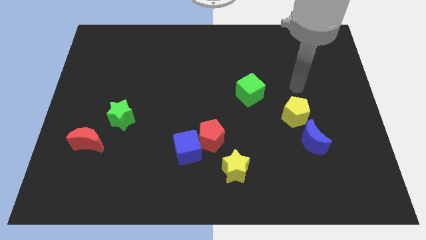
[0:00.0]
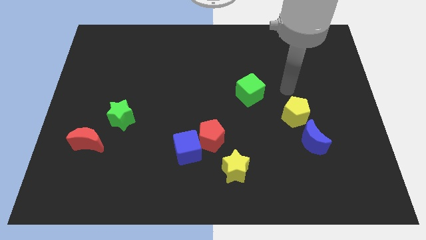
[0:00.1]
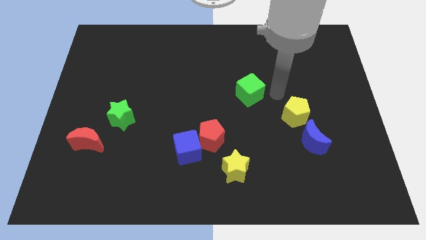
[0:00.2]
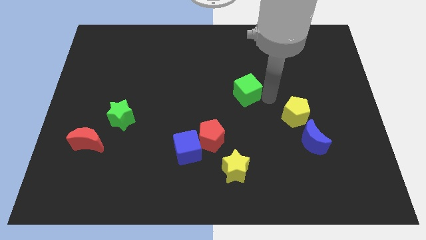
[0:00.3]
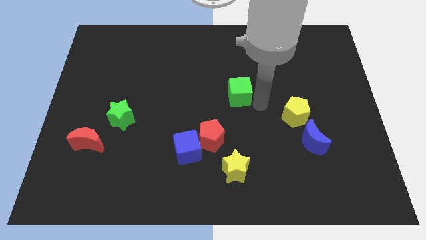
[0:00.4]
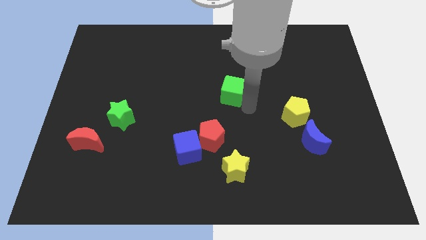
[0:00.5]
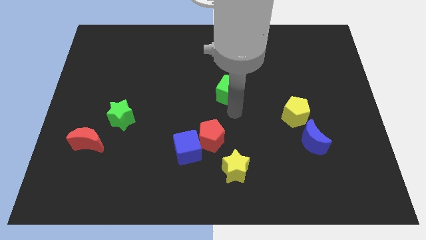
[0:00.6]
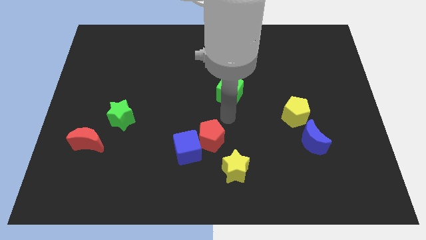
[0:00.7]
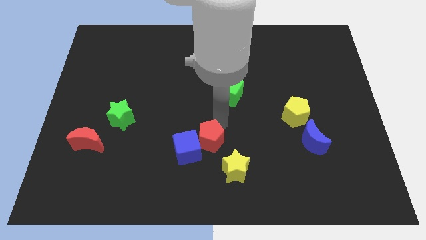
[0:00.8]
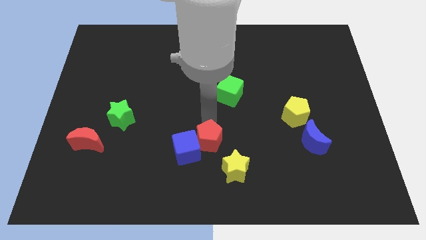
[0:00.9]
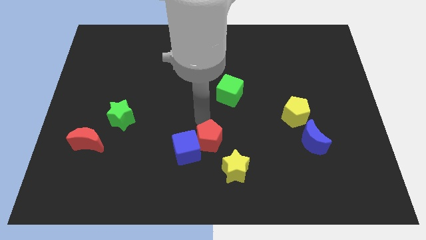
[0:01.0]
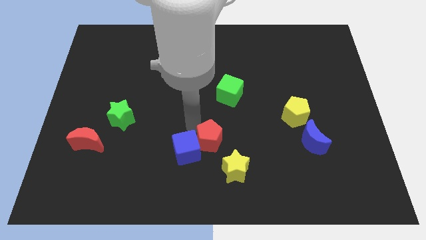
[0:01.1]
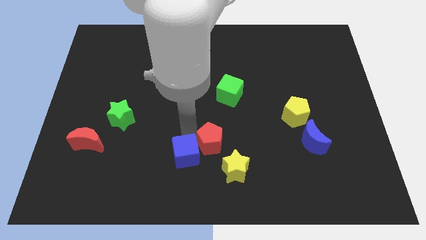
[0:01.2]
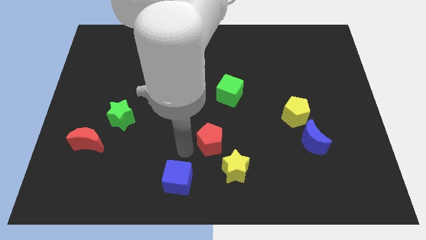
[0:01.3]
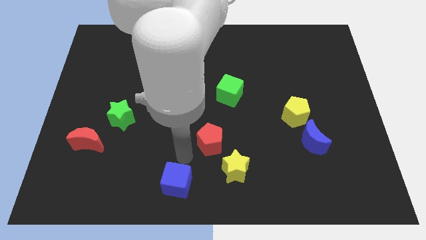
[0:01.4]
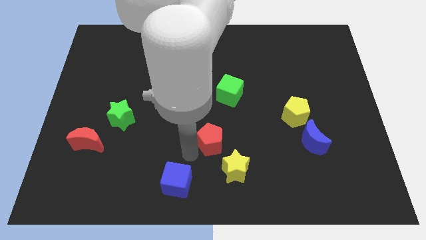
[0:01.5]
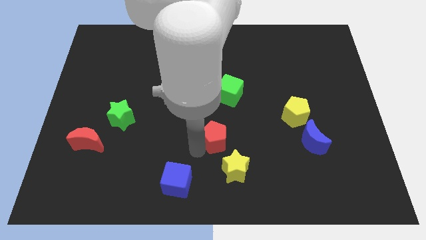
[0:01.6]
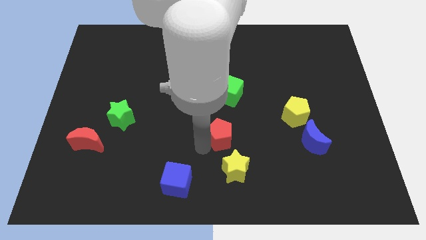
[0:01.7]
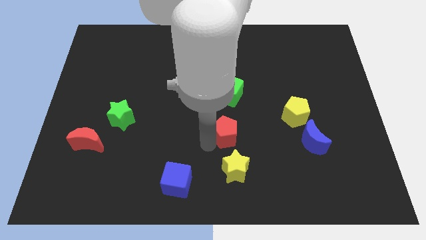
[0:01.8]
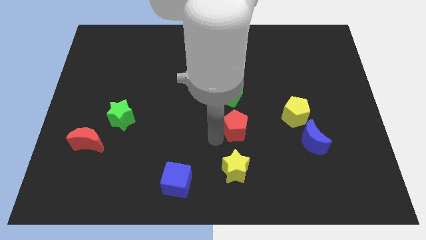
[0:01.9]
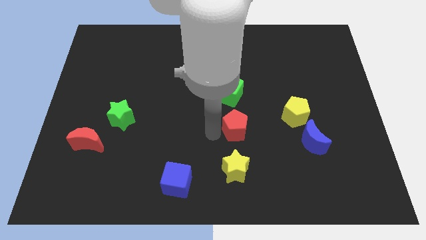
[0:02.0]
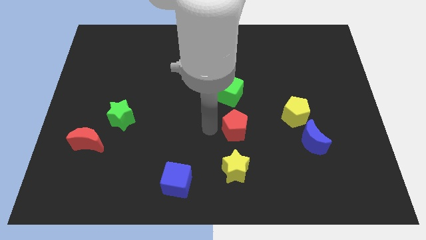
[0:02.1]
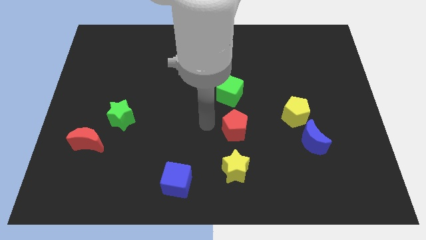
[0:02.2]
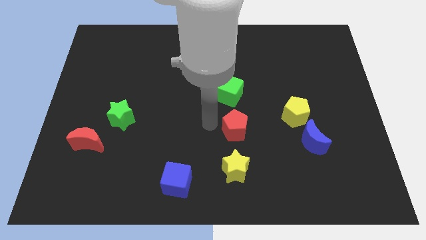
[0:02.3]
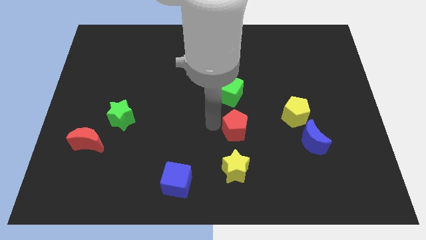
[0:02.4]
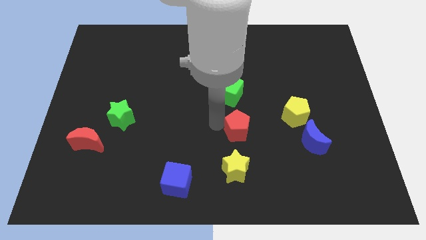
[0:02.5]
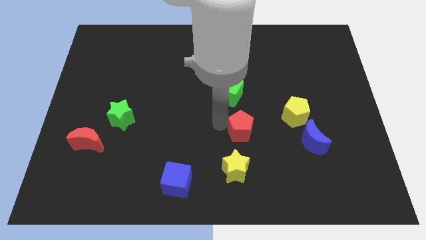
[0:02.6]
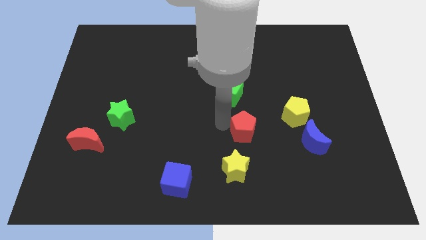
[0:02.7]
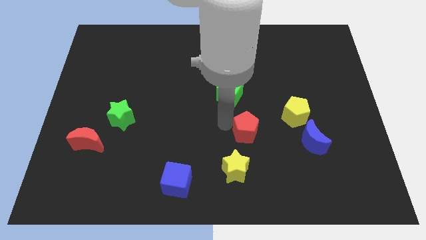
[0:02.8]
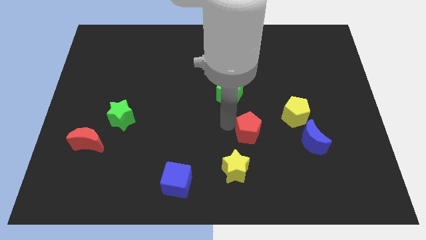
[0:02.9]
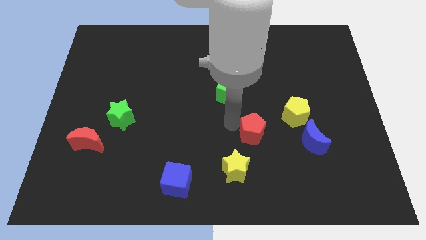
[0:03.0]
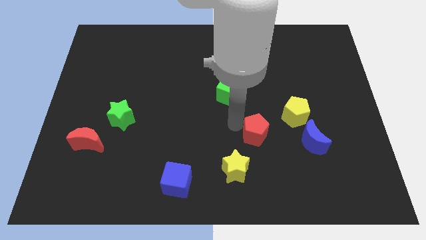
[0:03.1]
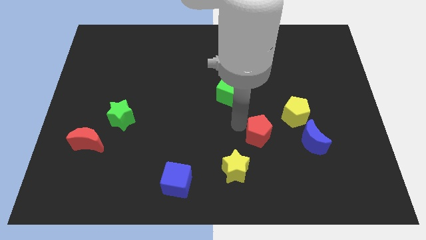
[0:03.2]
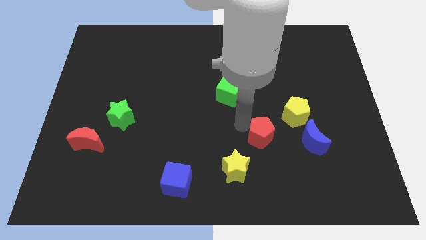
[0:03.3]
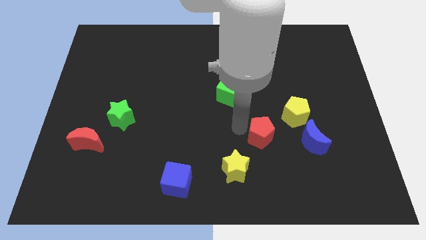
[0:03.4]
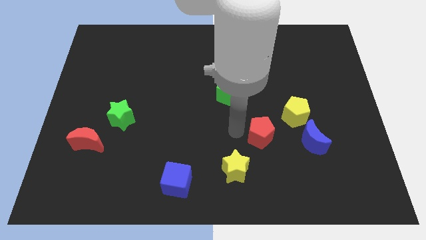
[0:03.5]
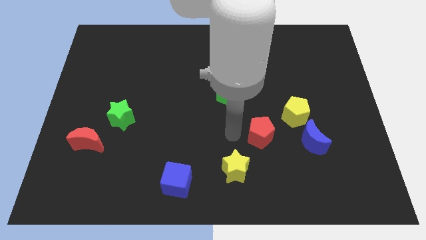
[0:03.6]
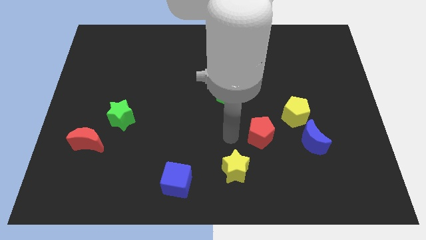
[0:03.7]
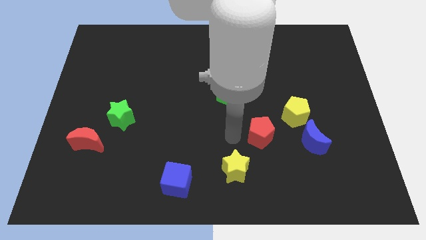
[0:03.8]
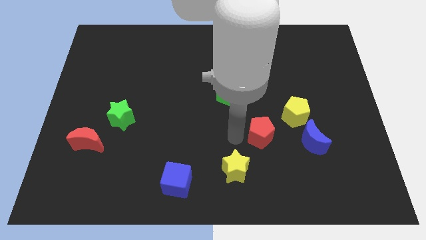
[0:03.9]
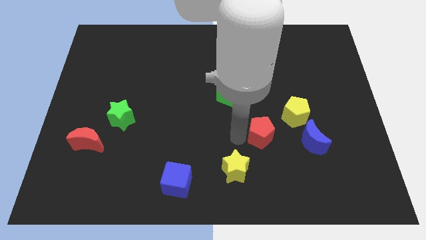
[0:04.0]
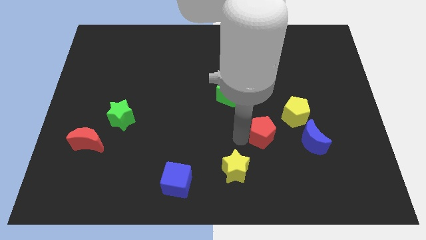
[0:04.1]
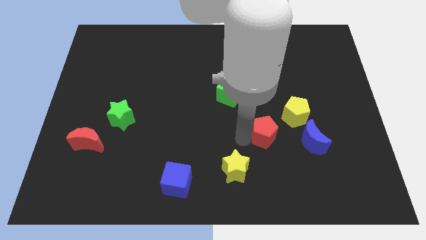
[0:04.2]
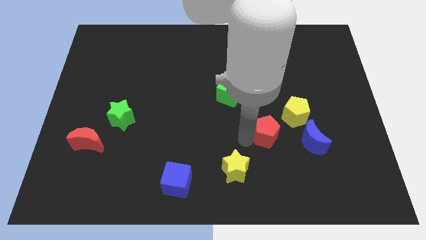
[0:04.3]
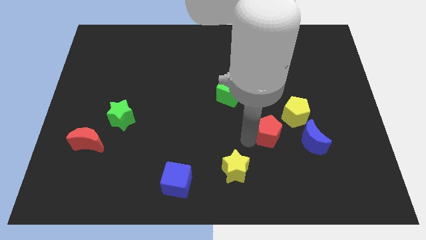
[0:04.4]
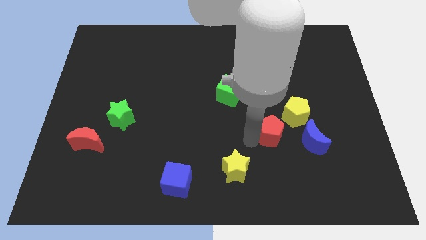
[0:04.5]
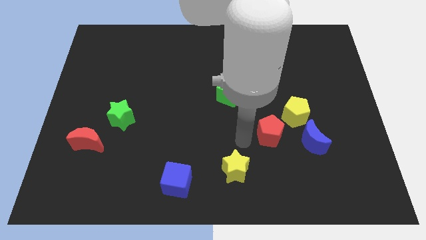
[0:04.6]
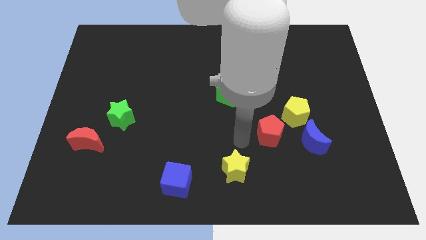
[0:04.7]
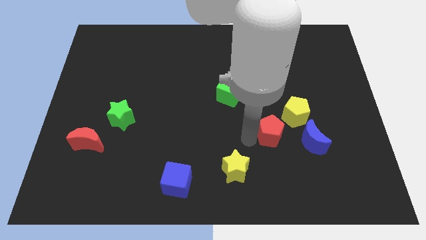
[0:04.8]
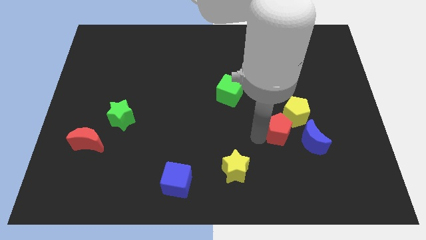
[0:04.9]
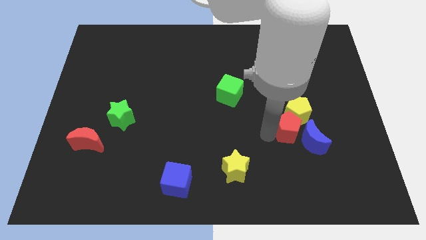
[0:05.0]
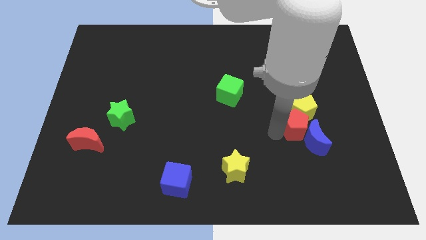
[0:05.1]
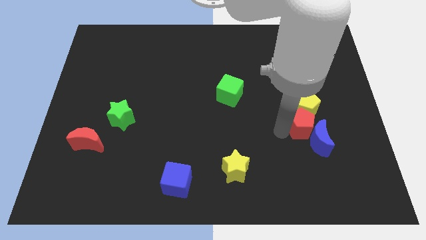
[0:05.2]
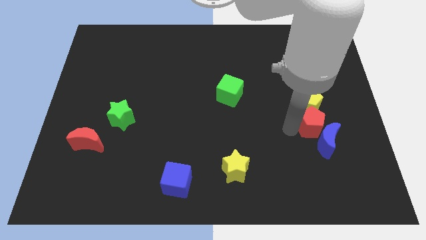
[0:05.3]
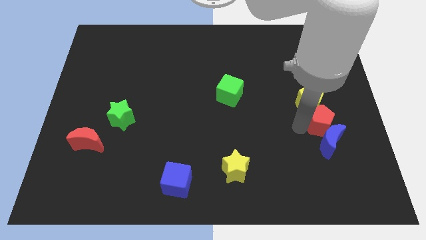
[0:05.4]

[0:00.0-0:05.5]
slide the red pentagon to the top right of the blue moon

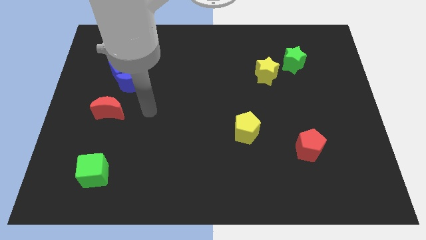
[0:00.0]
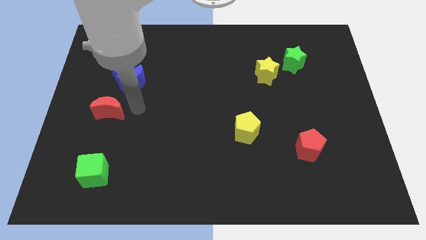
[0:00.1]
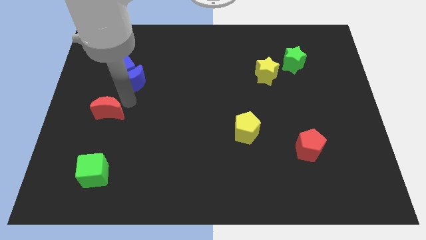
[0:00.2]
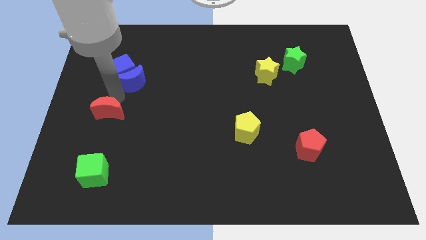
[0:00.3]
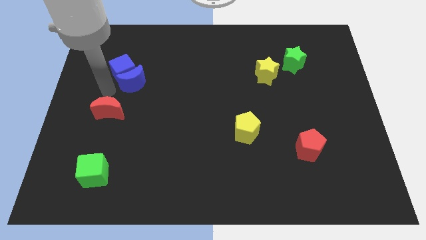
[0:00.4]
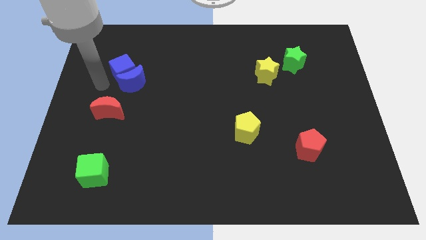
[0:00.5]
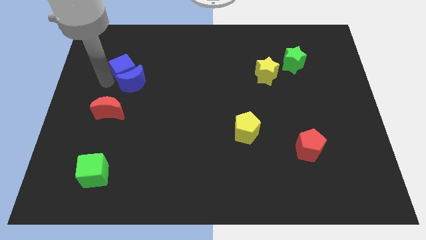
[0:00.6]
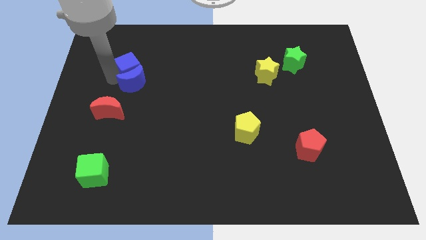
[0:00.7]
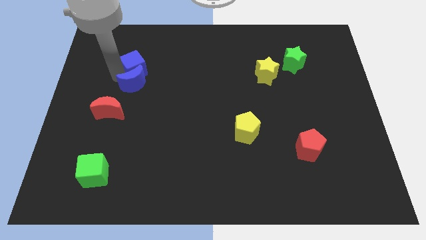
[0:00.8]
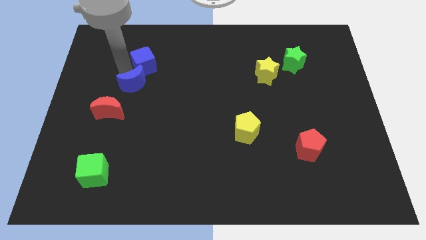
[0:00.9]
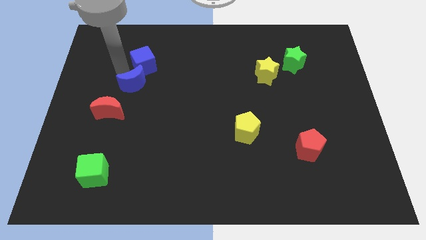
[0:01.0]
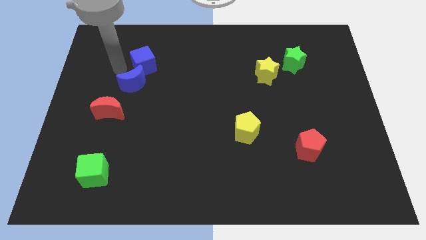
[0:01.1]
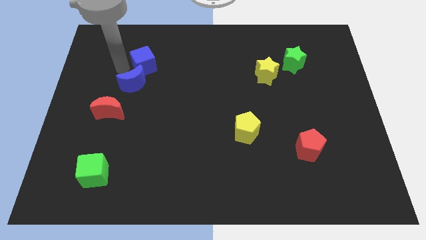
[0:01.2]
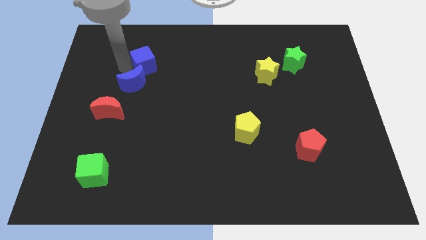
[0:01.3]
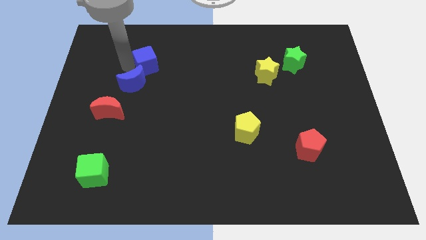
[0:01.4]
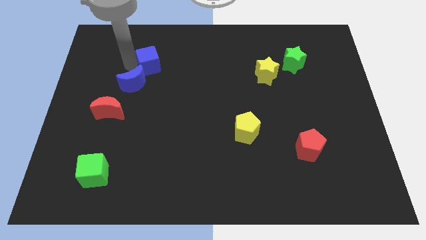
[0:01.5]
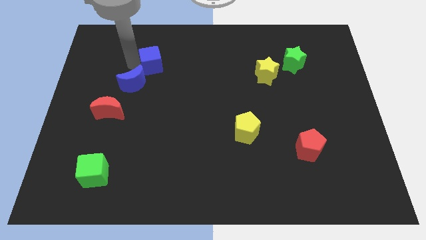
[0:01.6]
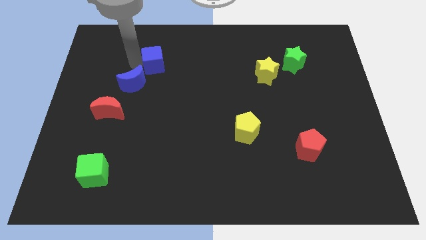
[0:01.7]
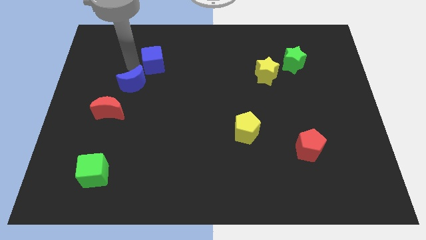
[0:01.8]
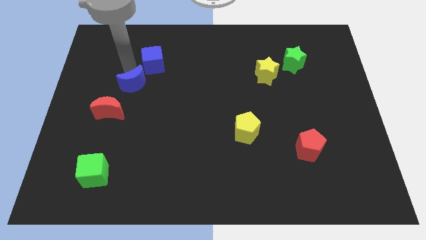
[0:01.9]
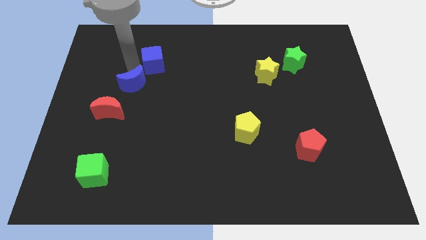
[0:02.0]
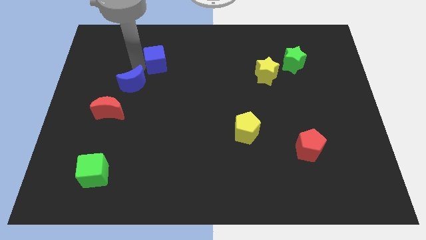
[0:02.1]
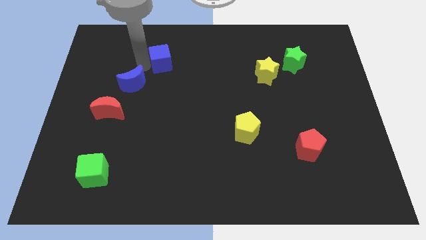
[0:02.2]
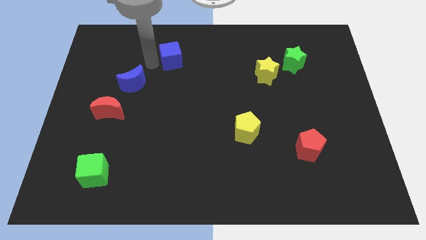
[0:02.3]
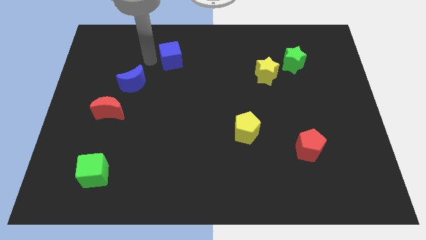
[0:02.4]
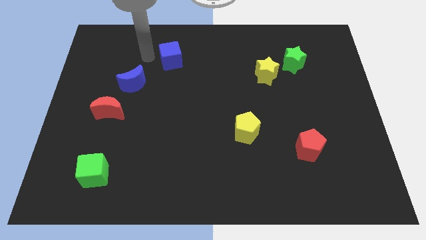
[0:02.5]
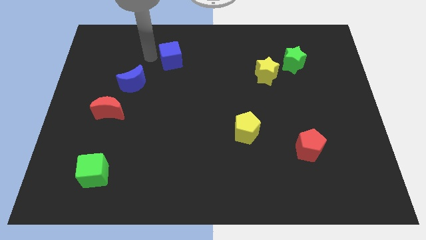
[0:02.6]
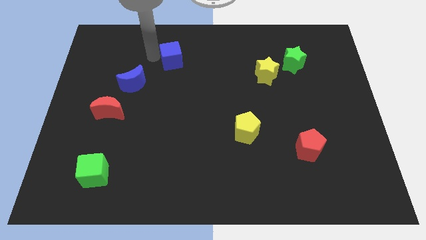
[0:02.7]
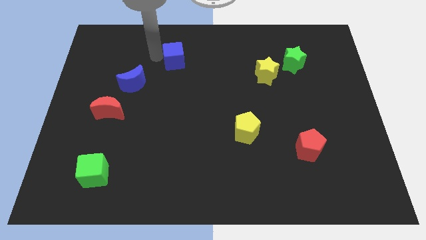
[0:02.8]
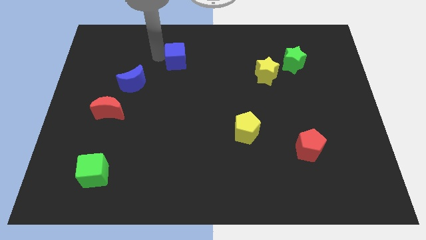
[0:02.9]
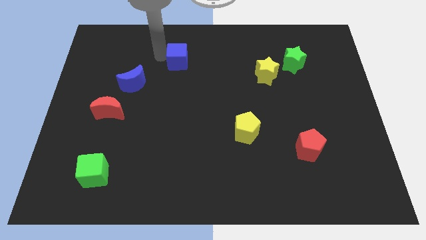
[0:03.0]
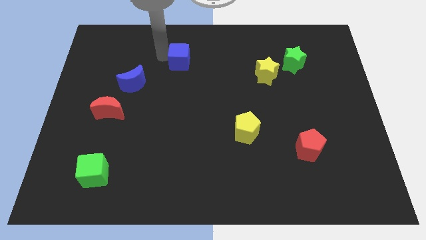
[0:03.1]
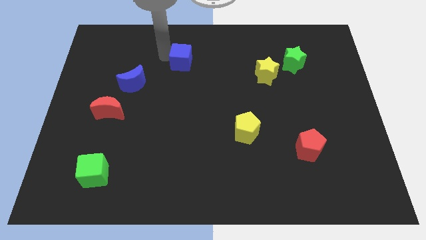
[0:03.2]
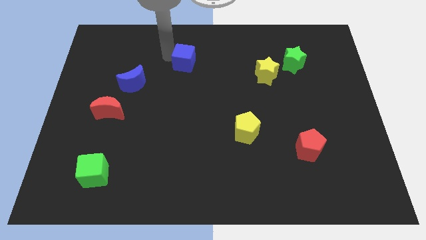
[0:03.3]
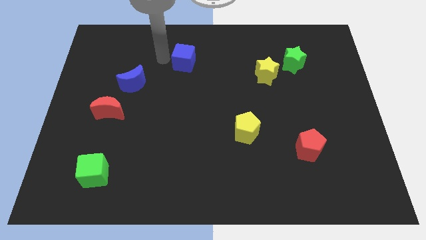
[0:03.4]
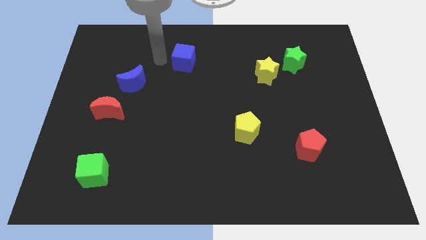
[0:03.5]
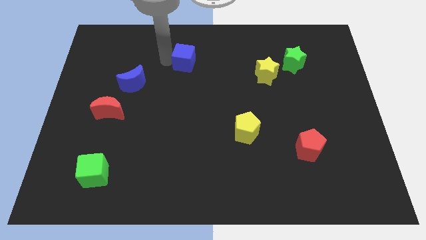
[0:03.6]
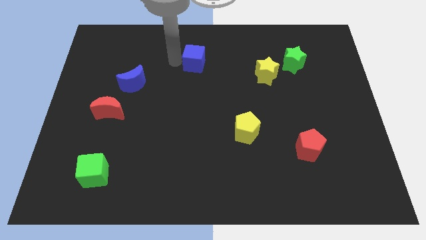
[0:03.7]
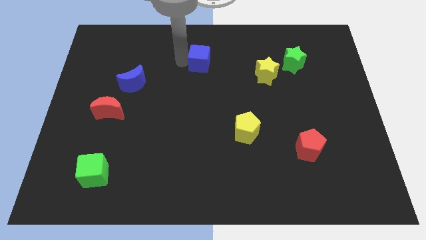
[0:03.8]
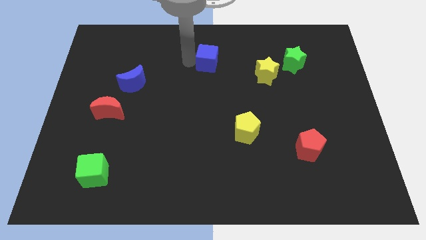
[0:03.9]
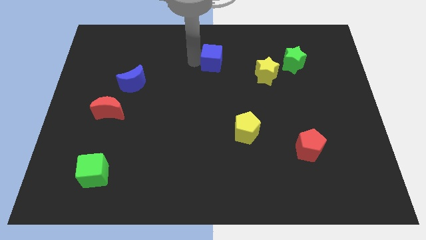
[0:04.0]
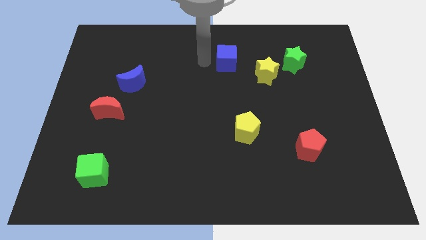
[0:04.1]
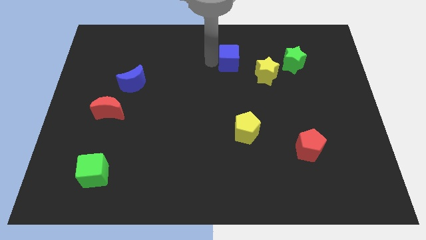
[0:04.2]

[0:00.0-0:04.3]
put the blue cube to the left side of the green star
